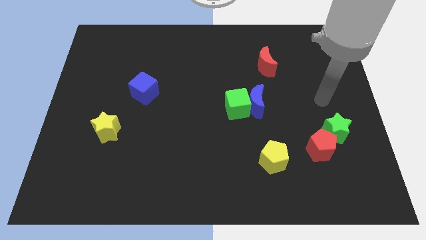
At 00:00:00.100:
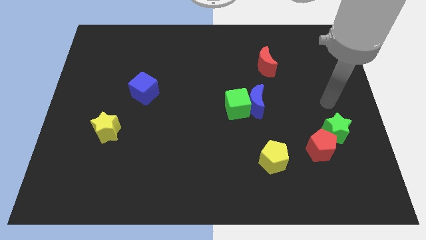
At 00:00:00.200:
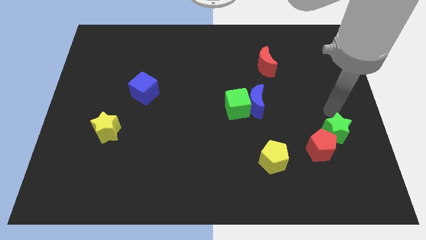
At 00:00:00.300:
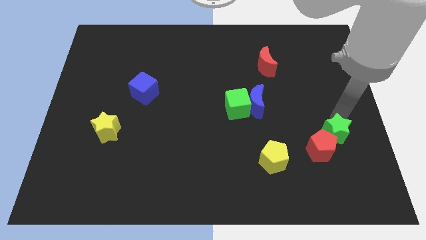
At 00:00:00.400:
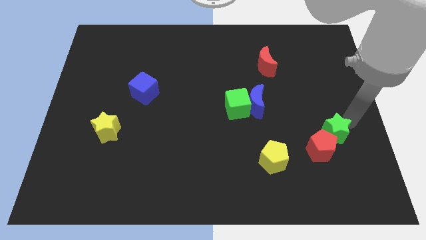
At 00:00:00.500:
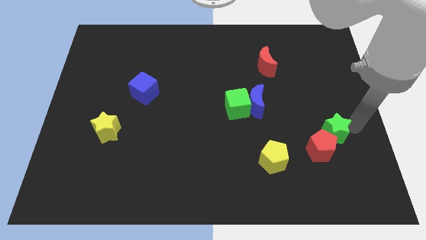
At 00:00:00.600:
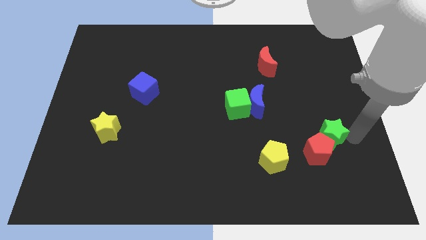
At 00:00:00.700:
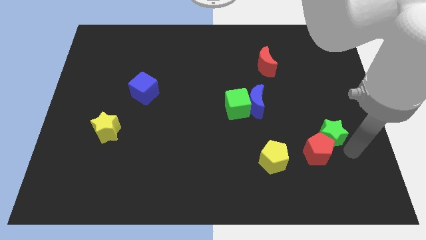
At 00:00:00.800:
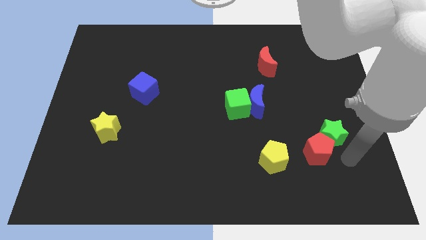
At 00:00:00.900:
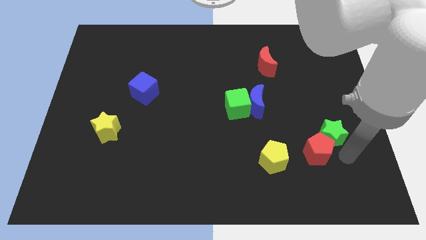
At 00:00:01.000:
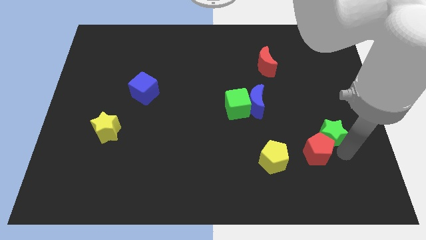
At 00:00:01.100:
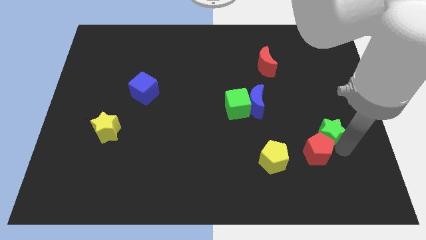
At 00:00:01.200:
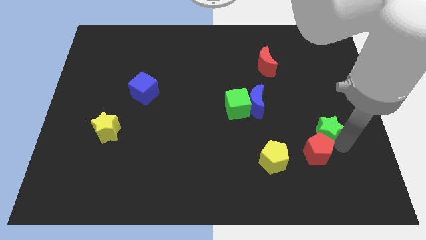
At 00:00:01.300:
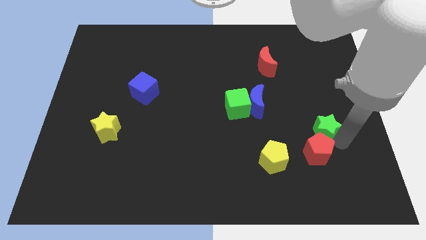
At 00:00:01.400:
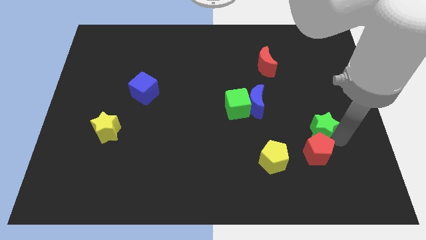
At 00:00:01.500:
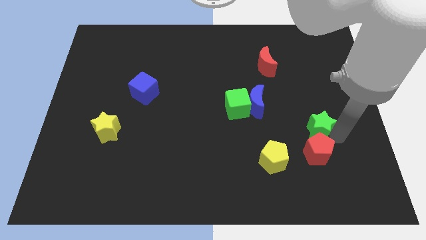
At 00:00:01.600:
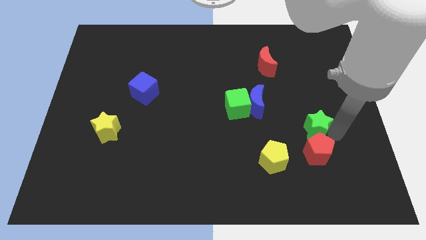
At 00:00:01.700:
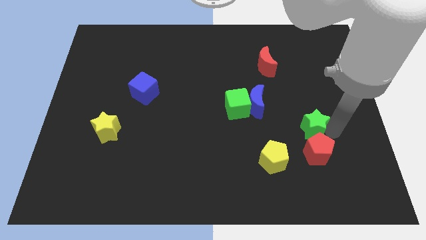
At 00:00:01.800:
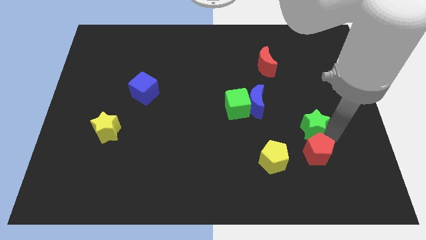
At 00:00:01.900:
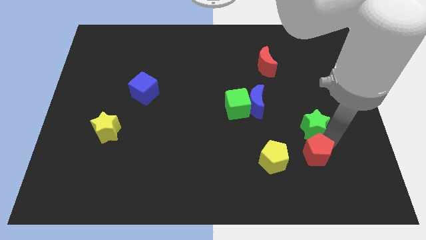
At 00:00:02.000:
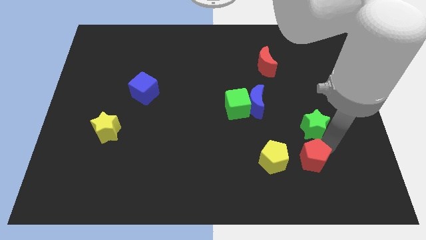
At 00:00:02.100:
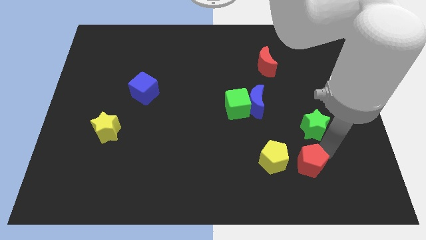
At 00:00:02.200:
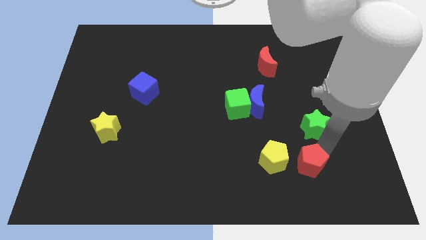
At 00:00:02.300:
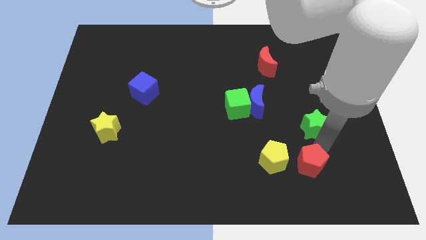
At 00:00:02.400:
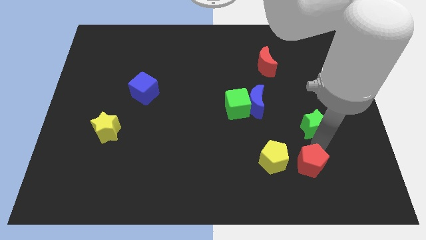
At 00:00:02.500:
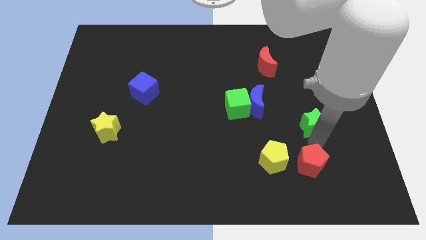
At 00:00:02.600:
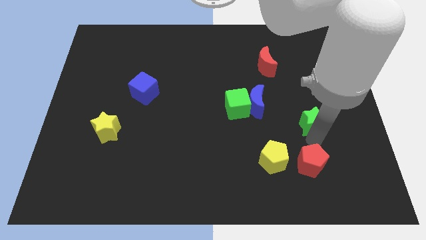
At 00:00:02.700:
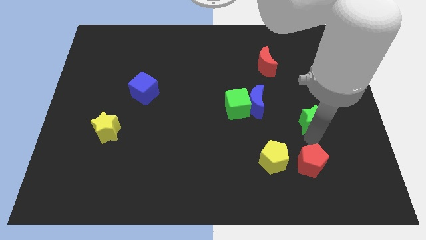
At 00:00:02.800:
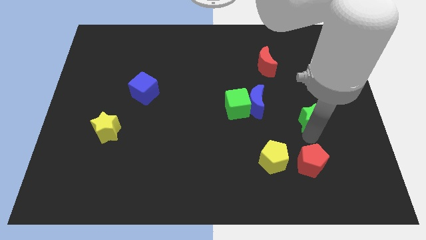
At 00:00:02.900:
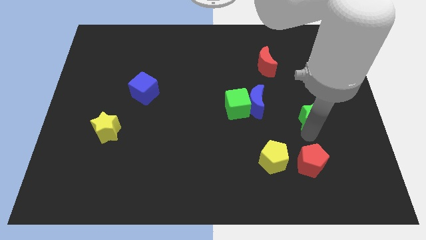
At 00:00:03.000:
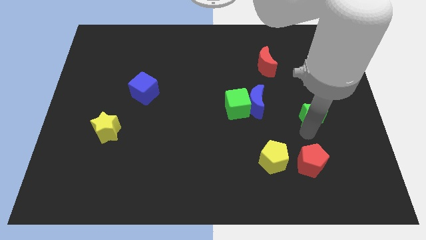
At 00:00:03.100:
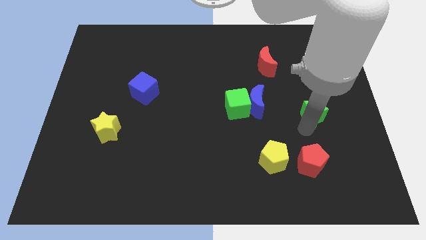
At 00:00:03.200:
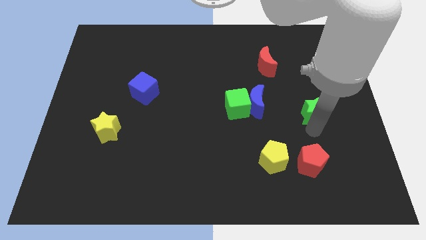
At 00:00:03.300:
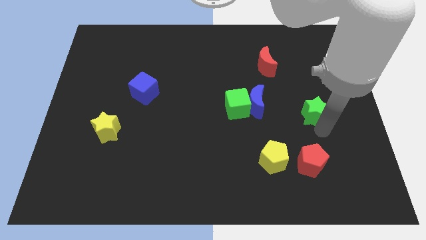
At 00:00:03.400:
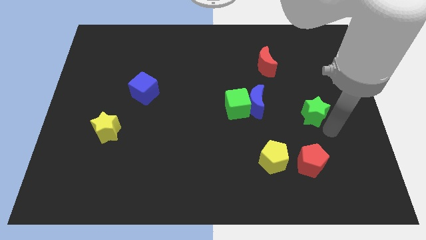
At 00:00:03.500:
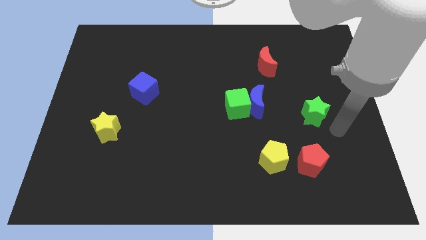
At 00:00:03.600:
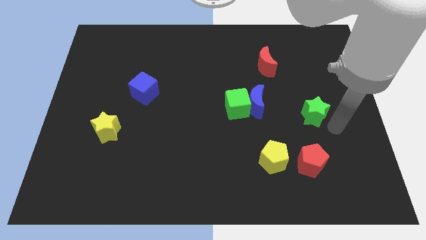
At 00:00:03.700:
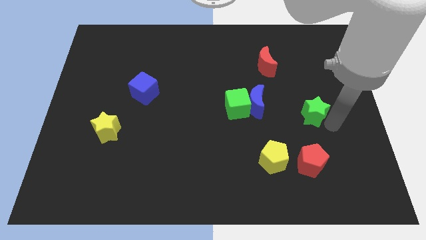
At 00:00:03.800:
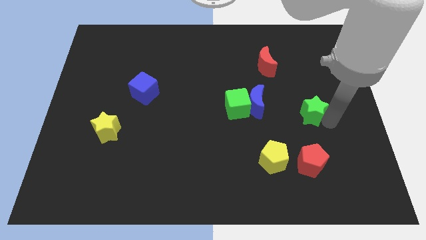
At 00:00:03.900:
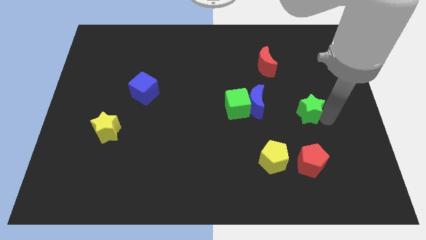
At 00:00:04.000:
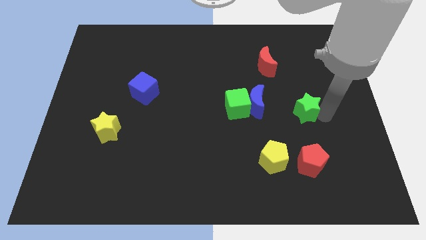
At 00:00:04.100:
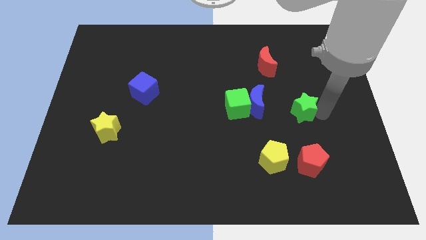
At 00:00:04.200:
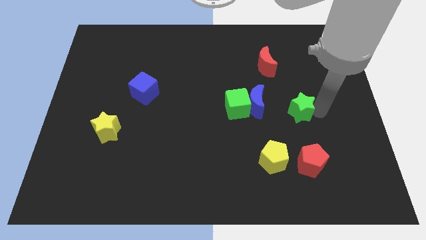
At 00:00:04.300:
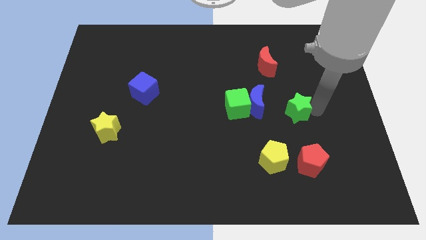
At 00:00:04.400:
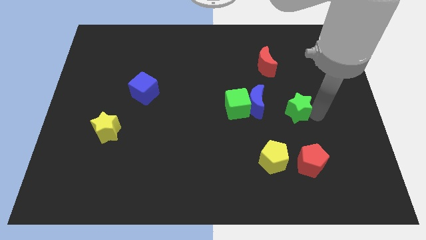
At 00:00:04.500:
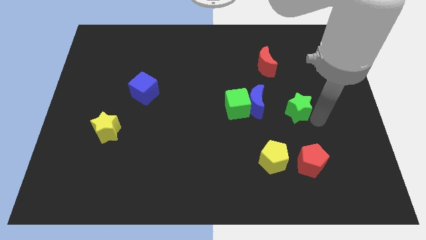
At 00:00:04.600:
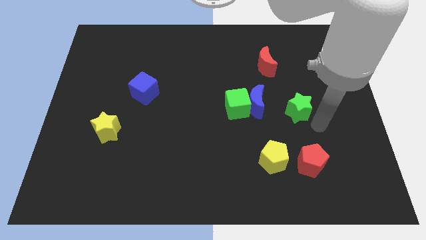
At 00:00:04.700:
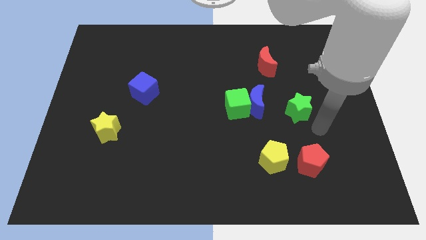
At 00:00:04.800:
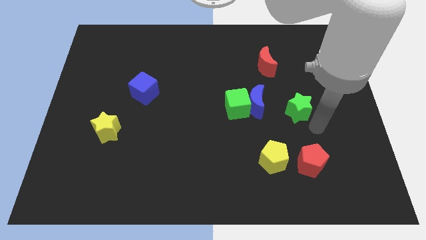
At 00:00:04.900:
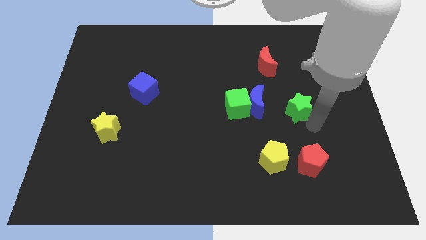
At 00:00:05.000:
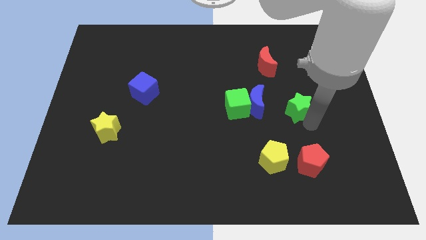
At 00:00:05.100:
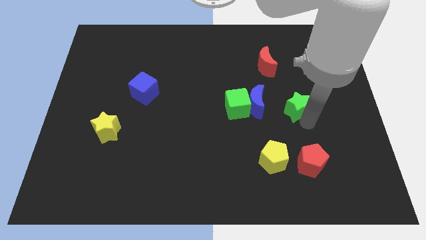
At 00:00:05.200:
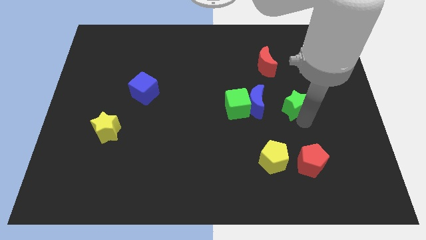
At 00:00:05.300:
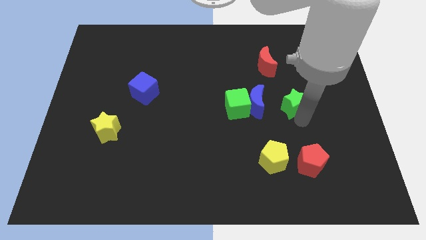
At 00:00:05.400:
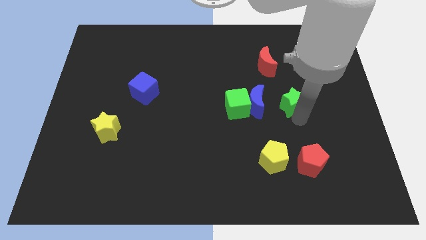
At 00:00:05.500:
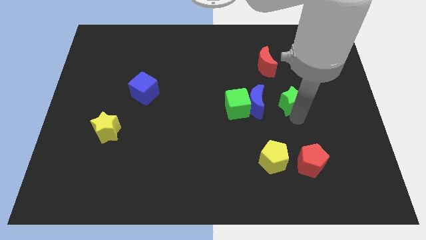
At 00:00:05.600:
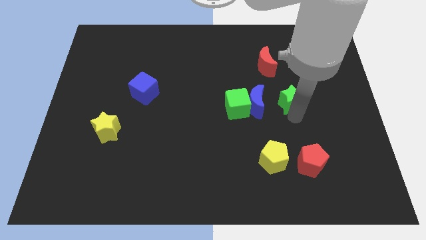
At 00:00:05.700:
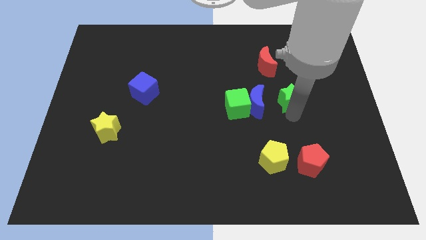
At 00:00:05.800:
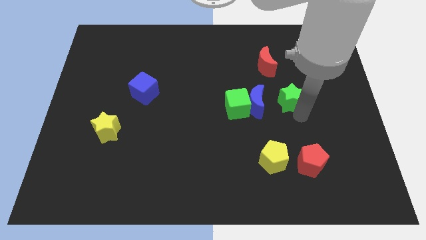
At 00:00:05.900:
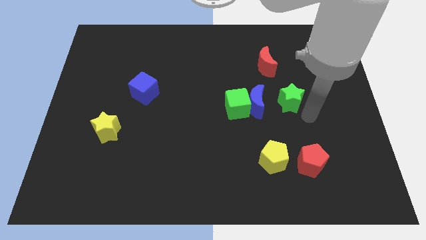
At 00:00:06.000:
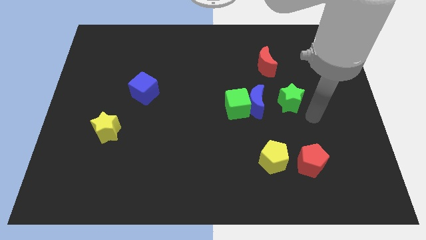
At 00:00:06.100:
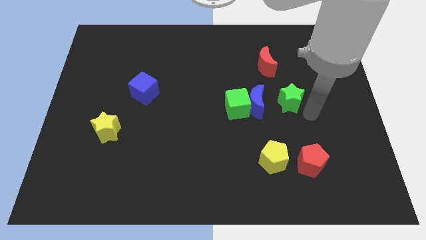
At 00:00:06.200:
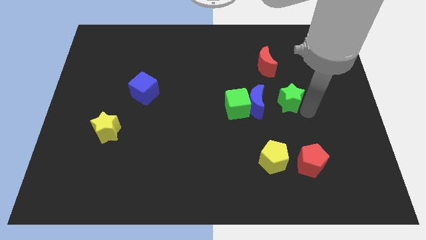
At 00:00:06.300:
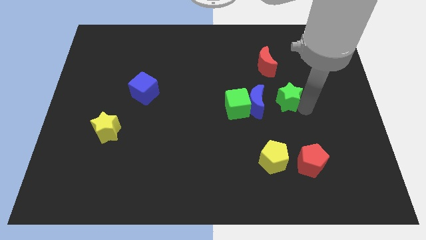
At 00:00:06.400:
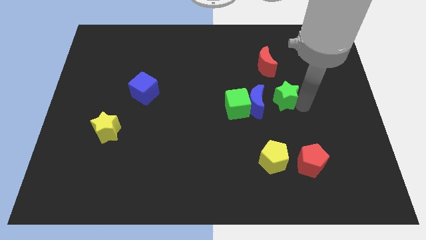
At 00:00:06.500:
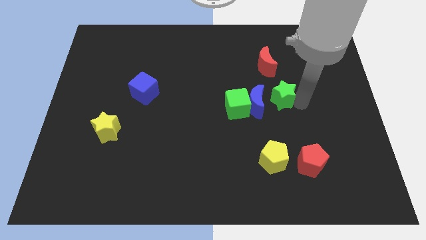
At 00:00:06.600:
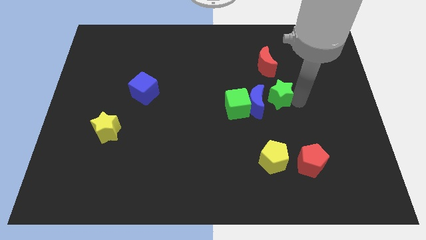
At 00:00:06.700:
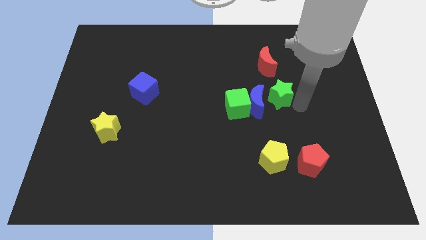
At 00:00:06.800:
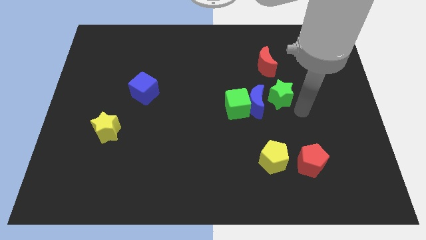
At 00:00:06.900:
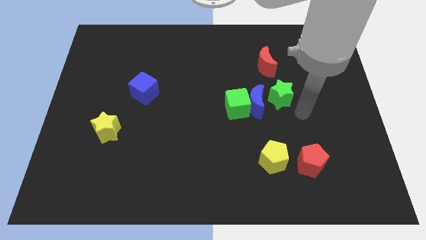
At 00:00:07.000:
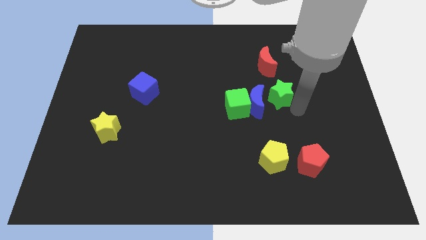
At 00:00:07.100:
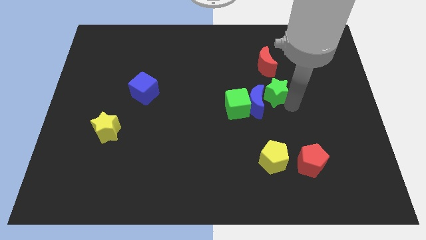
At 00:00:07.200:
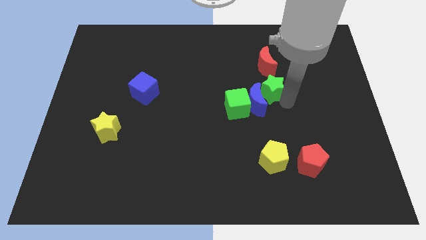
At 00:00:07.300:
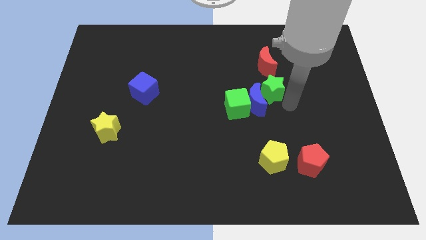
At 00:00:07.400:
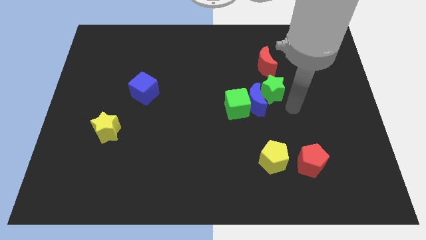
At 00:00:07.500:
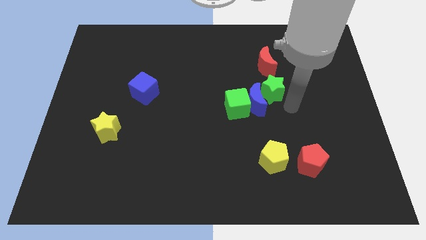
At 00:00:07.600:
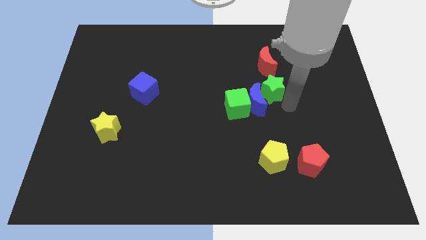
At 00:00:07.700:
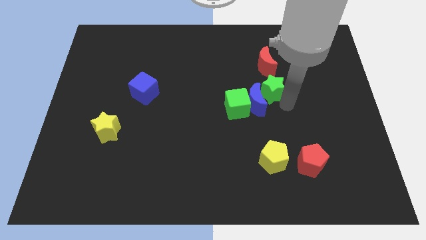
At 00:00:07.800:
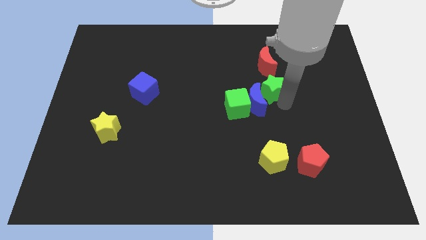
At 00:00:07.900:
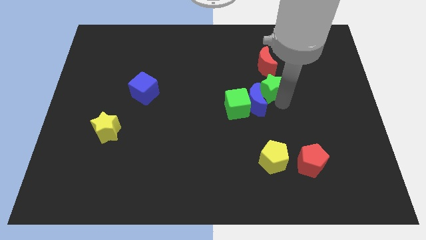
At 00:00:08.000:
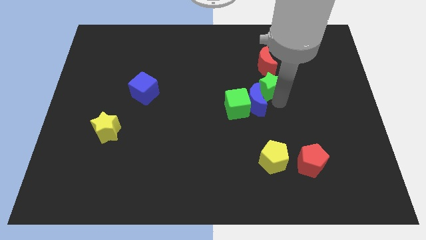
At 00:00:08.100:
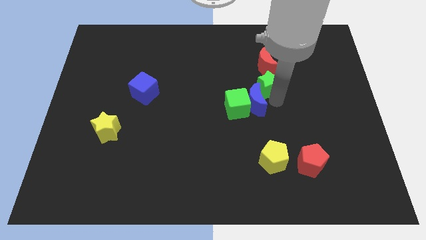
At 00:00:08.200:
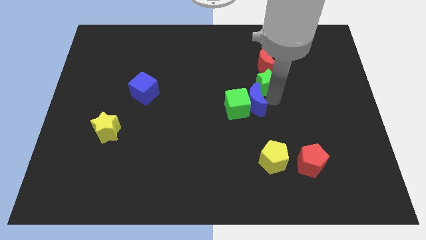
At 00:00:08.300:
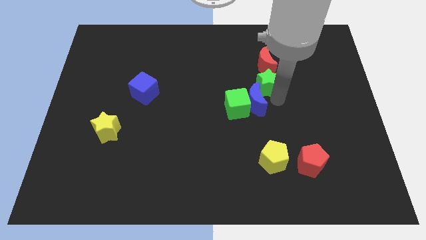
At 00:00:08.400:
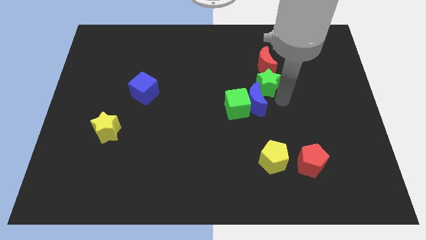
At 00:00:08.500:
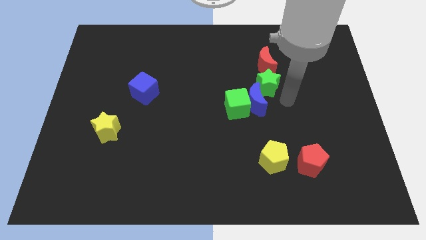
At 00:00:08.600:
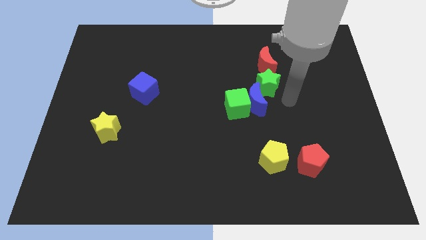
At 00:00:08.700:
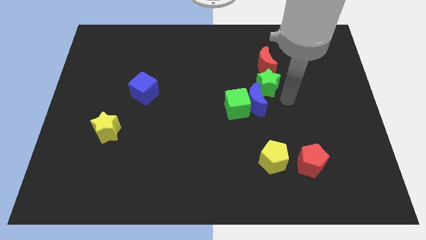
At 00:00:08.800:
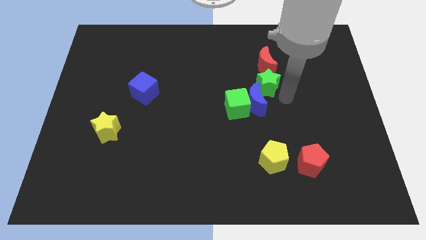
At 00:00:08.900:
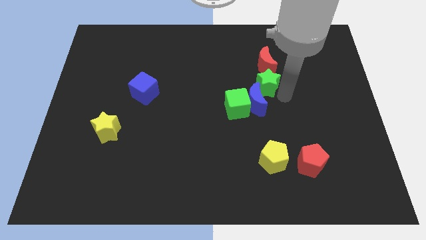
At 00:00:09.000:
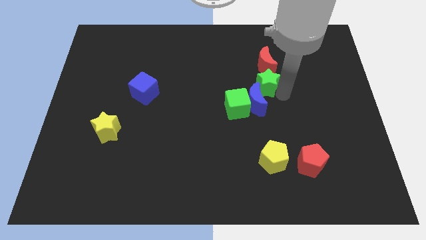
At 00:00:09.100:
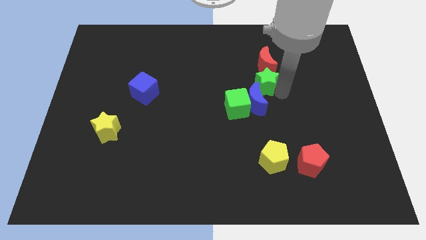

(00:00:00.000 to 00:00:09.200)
slide the green star diagonally upwards and left
